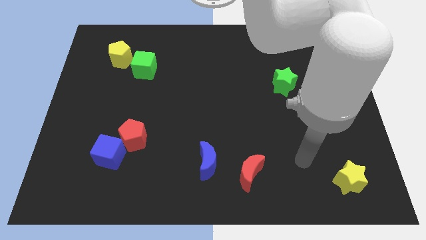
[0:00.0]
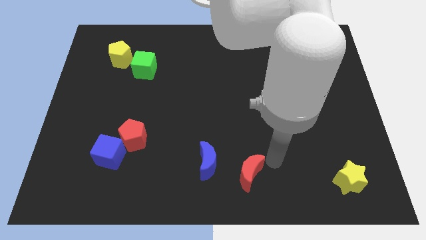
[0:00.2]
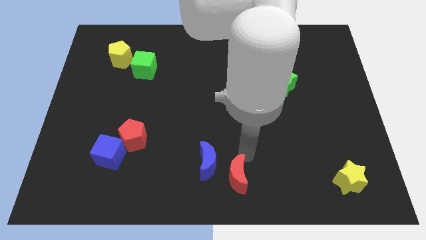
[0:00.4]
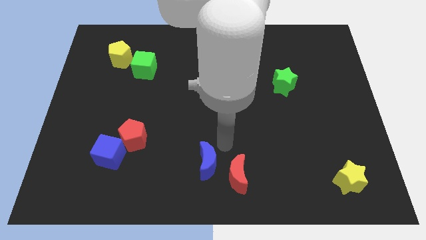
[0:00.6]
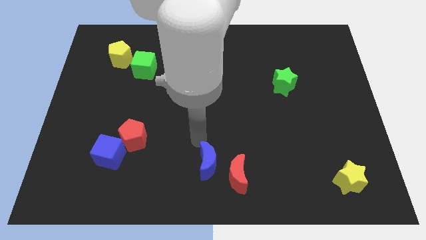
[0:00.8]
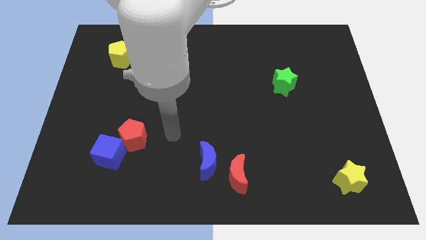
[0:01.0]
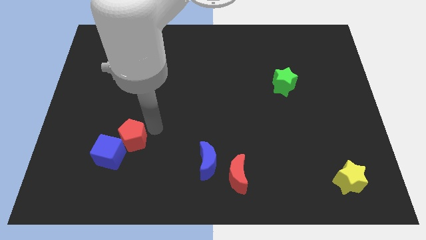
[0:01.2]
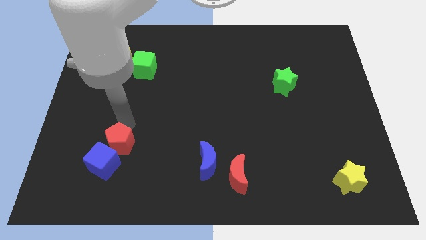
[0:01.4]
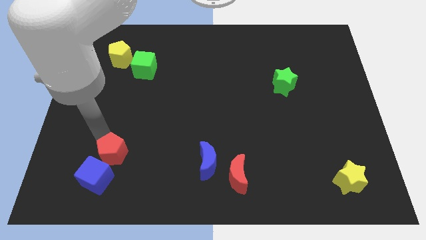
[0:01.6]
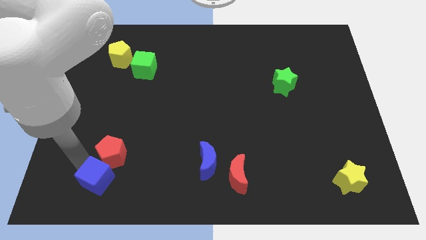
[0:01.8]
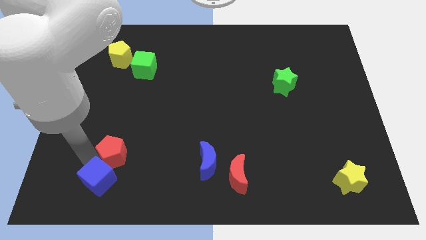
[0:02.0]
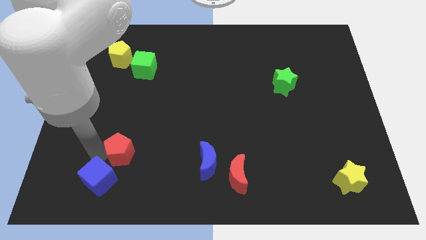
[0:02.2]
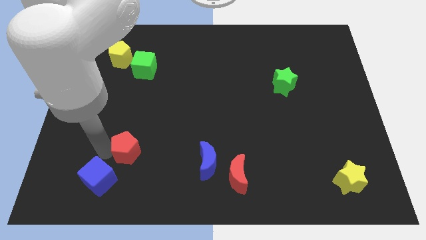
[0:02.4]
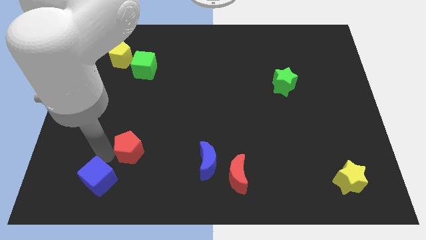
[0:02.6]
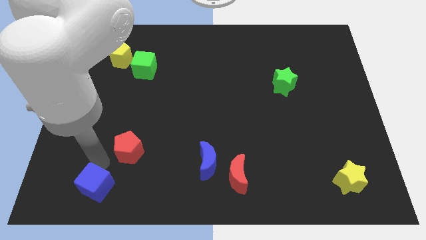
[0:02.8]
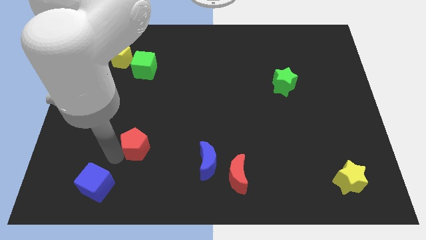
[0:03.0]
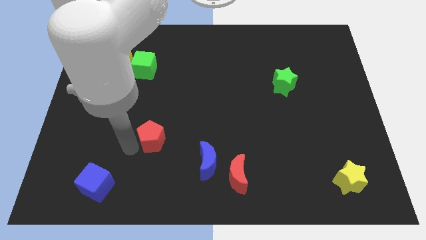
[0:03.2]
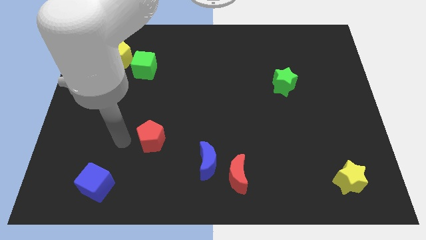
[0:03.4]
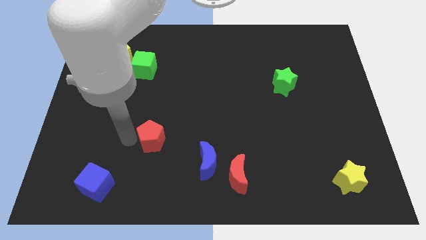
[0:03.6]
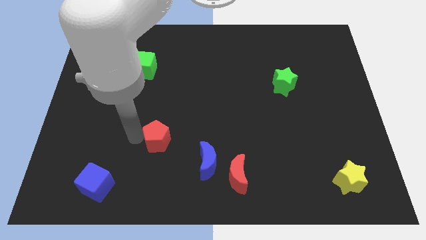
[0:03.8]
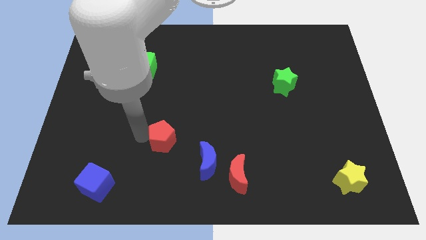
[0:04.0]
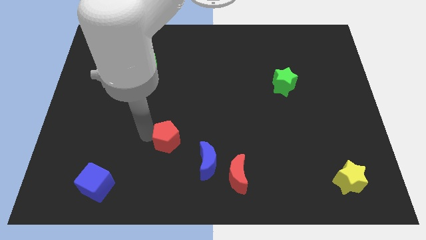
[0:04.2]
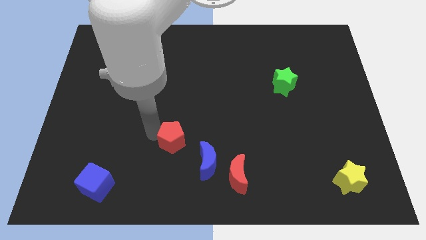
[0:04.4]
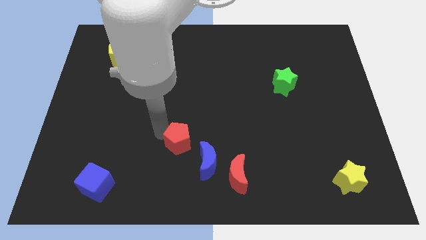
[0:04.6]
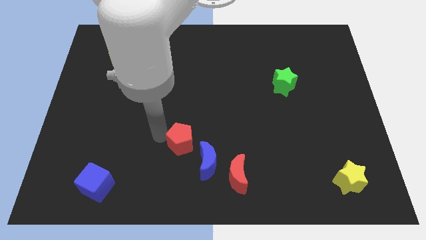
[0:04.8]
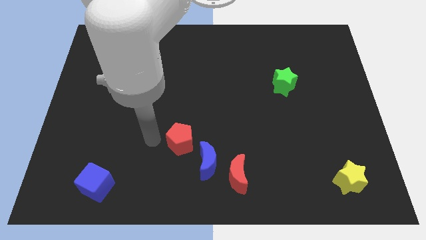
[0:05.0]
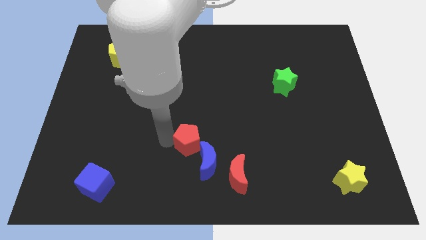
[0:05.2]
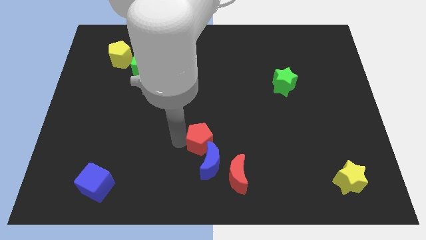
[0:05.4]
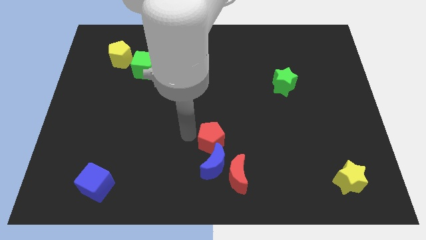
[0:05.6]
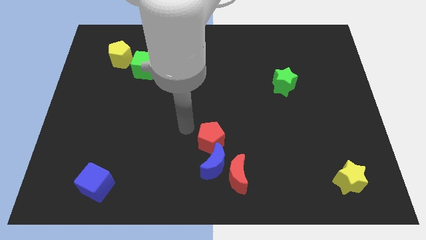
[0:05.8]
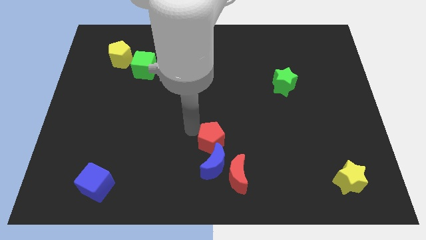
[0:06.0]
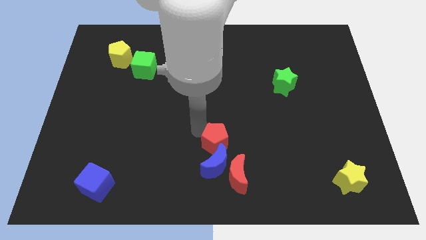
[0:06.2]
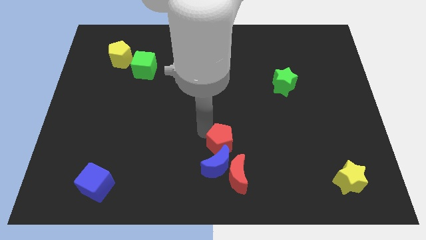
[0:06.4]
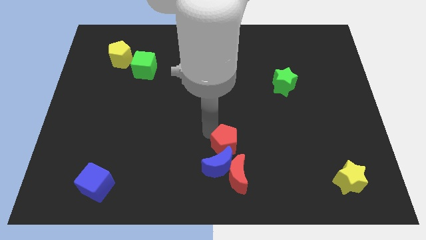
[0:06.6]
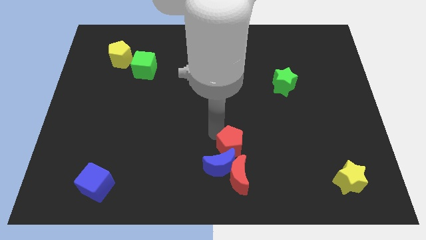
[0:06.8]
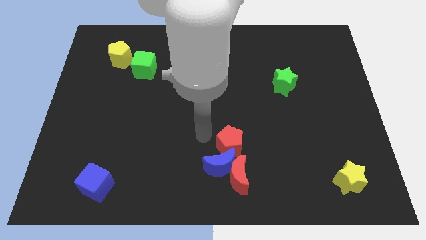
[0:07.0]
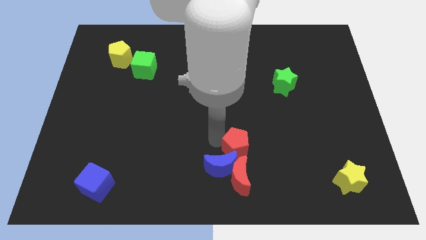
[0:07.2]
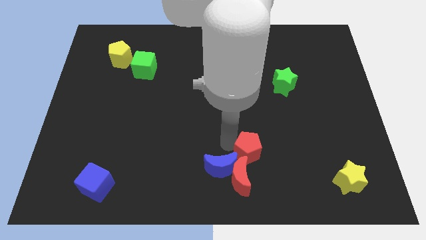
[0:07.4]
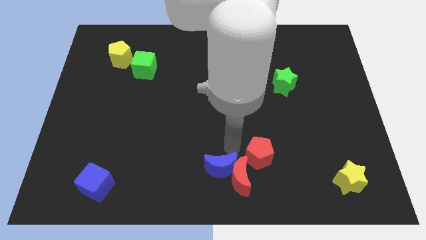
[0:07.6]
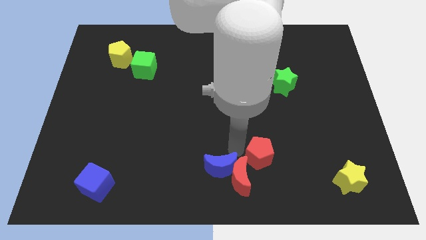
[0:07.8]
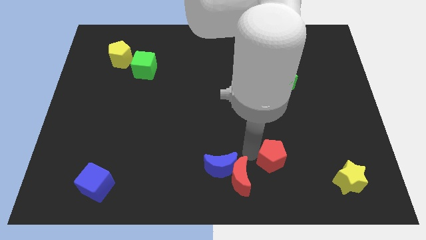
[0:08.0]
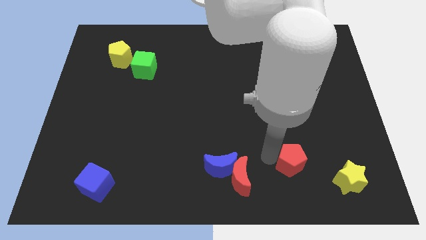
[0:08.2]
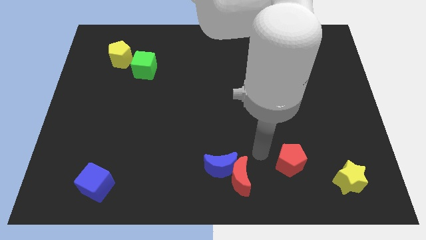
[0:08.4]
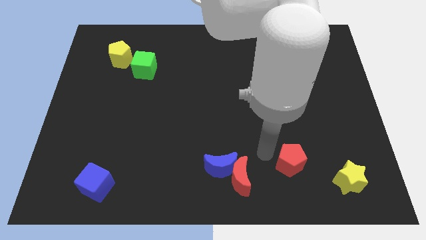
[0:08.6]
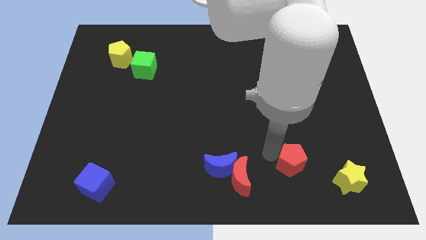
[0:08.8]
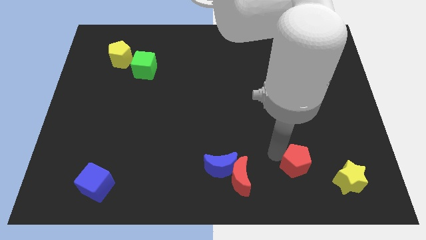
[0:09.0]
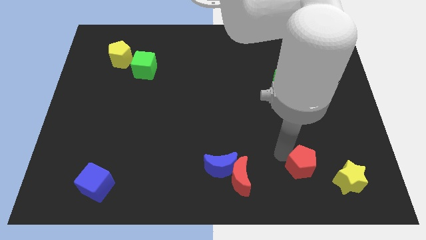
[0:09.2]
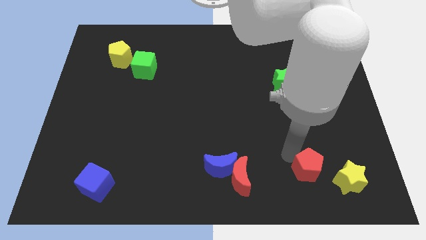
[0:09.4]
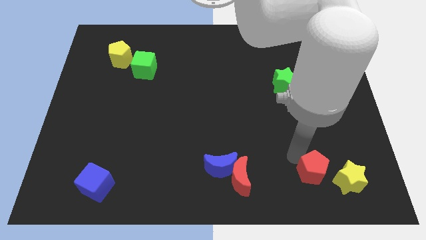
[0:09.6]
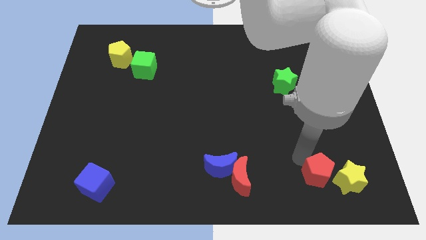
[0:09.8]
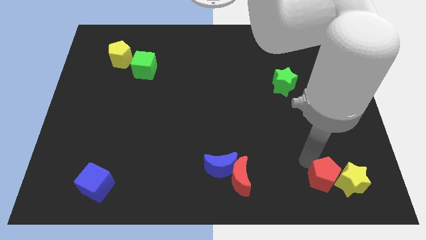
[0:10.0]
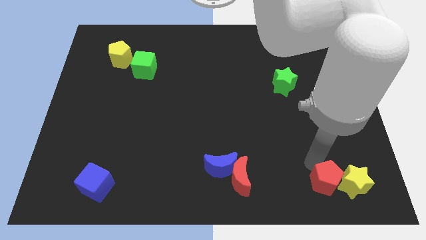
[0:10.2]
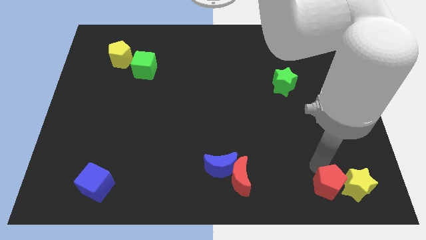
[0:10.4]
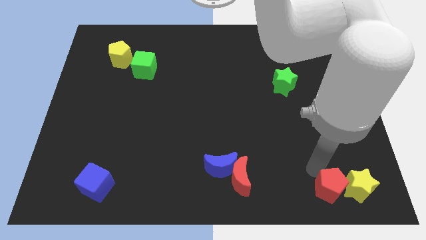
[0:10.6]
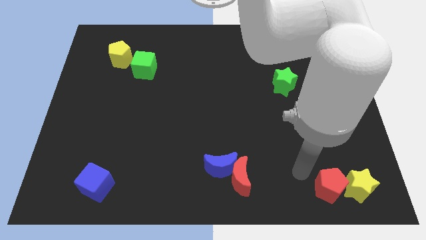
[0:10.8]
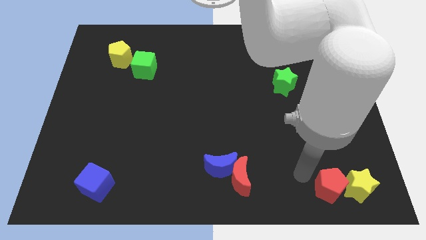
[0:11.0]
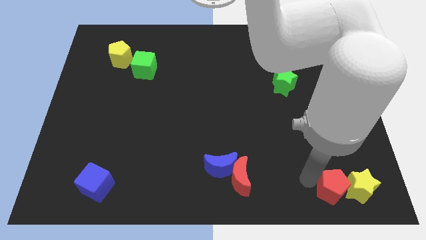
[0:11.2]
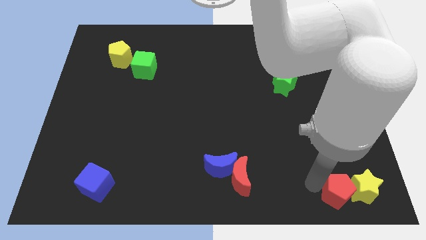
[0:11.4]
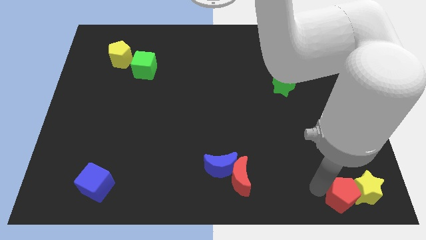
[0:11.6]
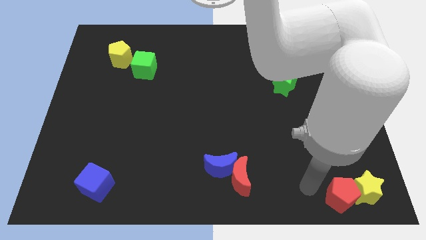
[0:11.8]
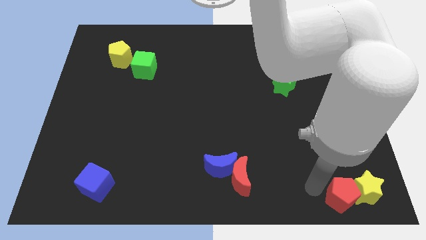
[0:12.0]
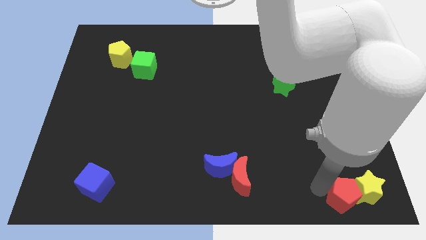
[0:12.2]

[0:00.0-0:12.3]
push the red pentagon to the bottom right of the board

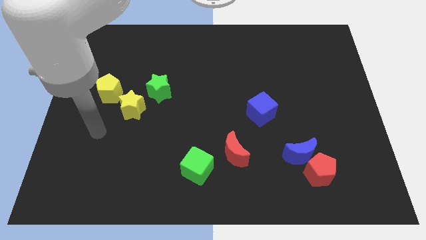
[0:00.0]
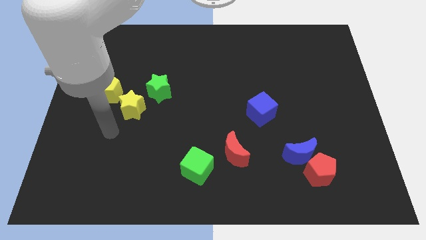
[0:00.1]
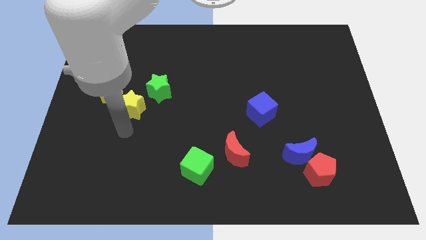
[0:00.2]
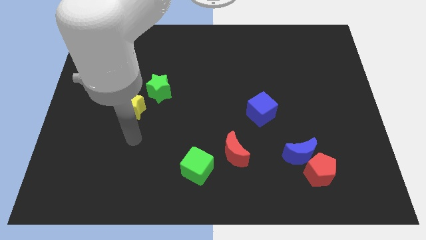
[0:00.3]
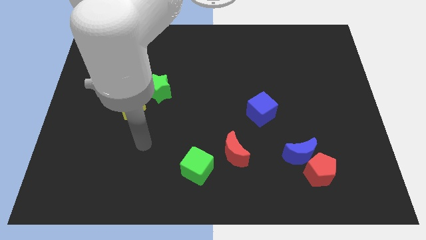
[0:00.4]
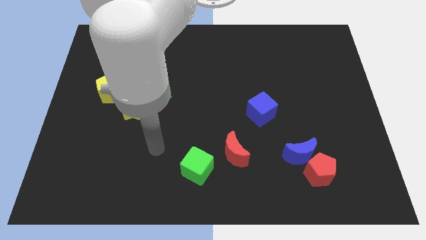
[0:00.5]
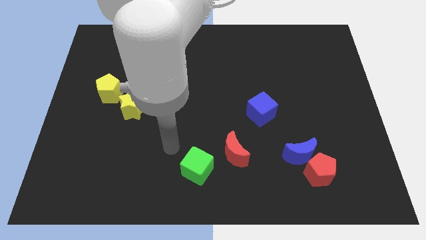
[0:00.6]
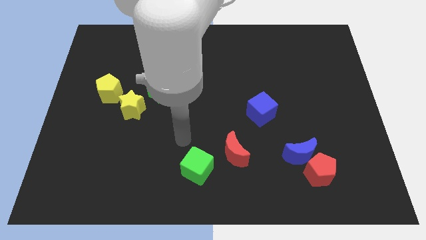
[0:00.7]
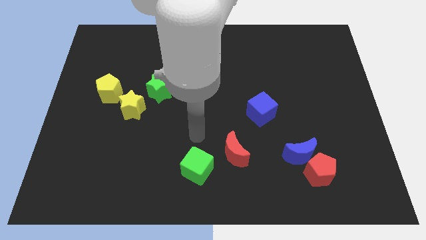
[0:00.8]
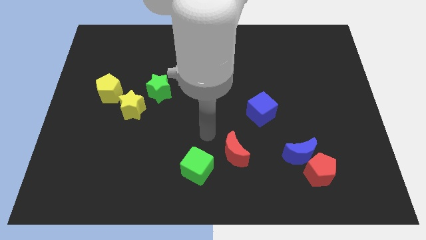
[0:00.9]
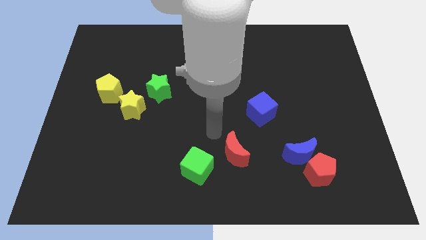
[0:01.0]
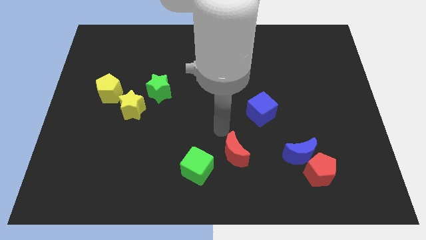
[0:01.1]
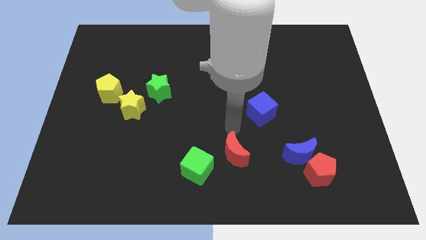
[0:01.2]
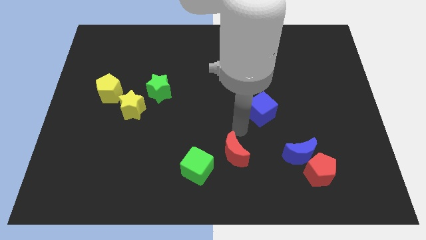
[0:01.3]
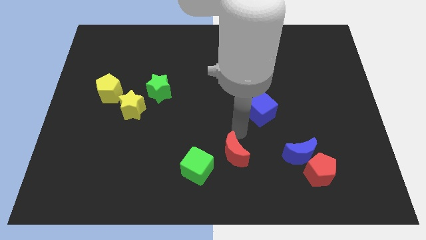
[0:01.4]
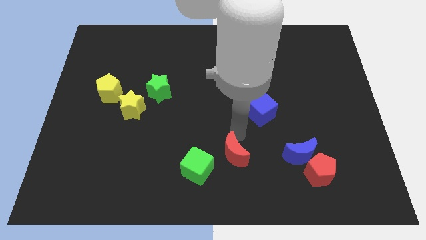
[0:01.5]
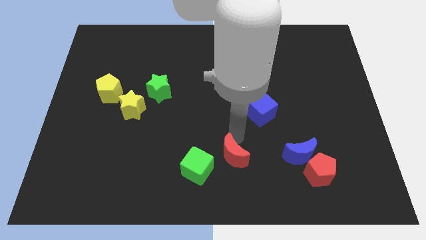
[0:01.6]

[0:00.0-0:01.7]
move the red moon to the bottom

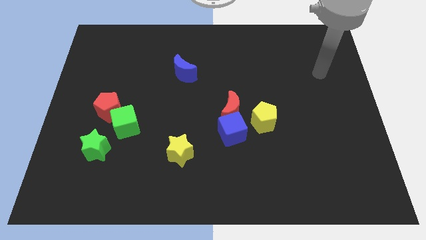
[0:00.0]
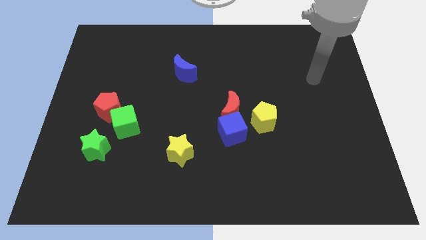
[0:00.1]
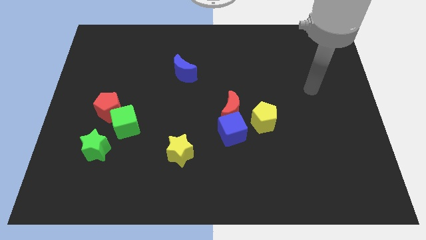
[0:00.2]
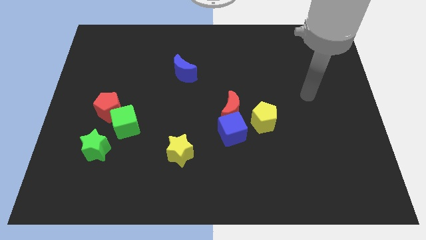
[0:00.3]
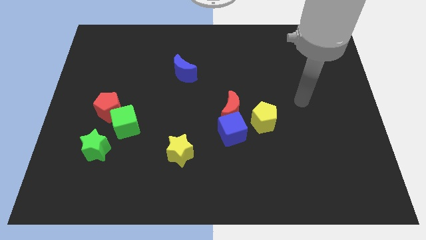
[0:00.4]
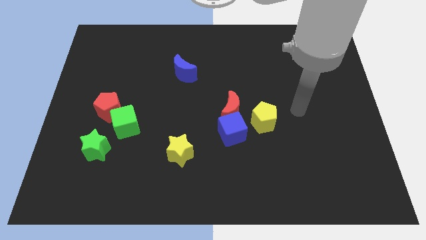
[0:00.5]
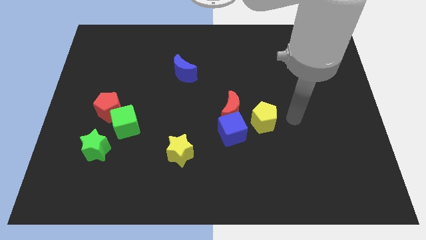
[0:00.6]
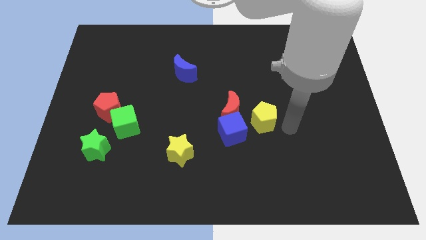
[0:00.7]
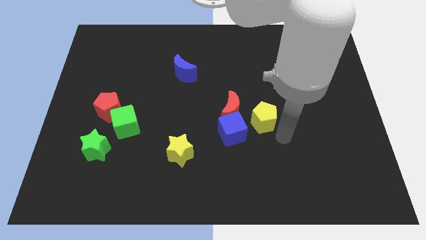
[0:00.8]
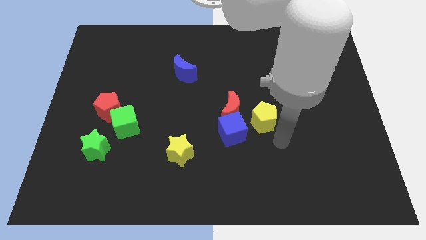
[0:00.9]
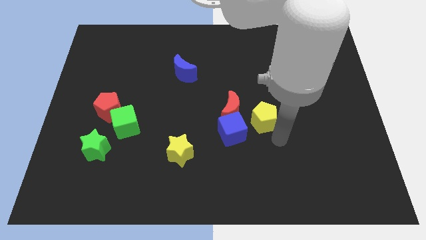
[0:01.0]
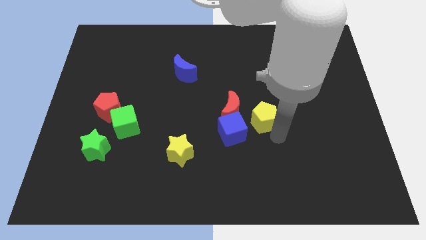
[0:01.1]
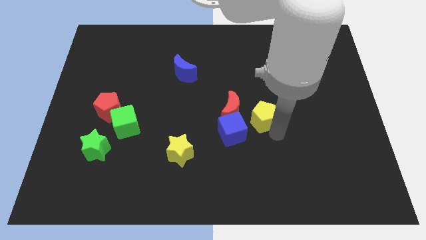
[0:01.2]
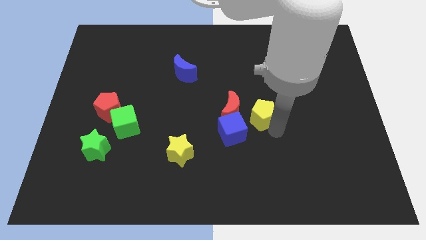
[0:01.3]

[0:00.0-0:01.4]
push the yellow pentagon to the center of the board
